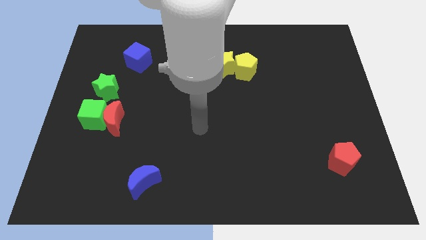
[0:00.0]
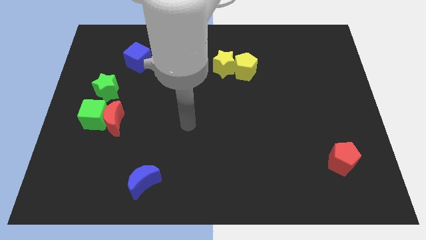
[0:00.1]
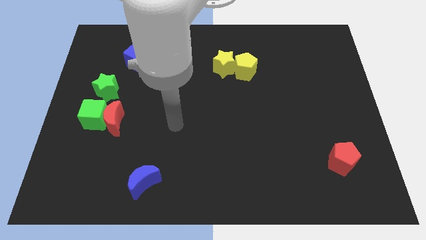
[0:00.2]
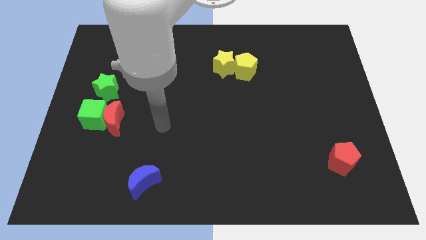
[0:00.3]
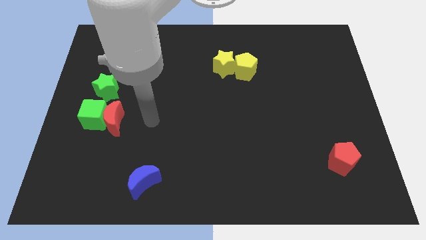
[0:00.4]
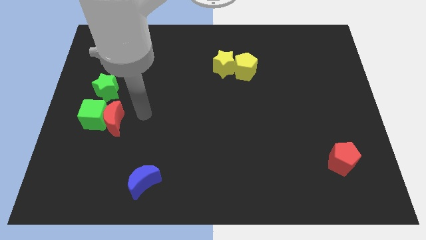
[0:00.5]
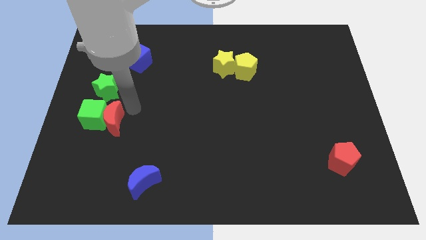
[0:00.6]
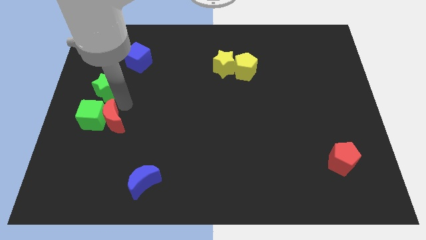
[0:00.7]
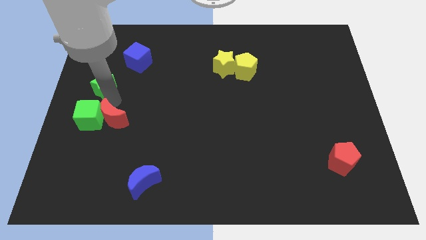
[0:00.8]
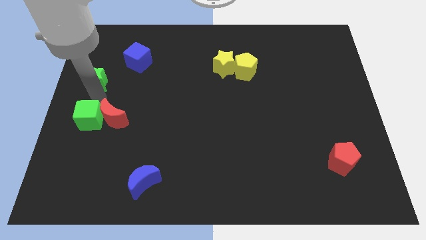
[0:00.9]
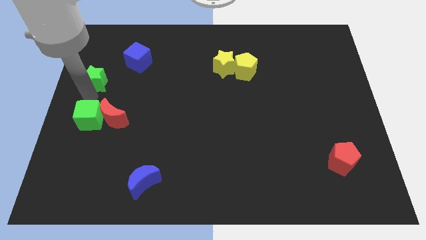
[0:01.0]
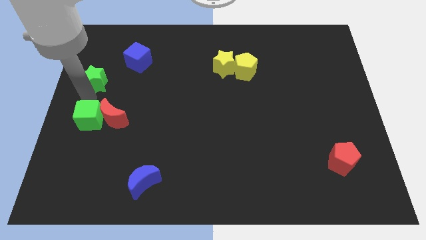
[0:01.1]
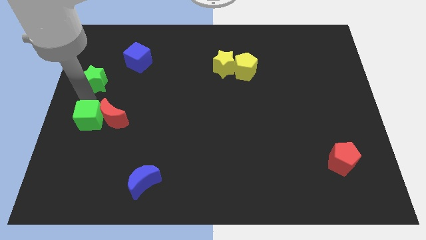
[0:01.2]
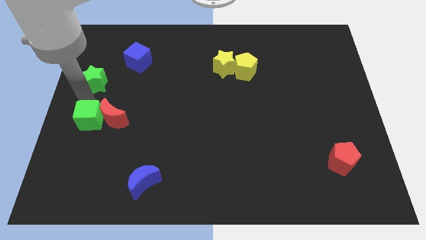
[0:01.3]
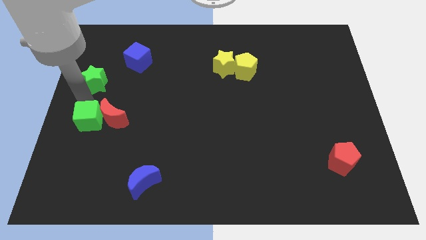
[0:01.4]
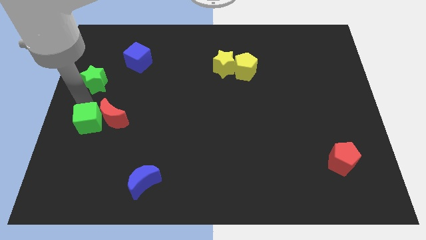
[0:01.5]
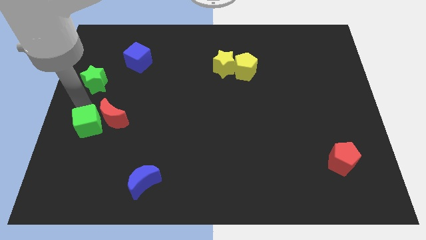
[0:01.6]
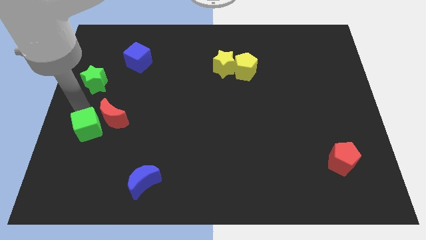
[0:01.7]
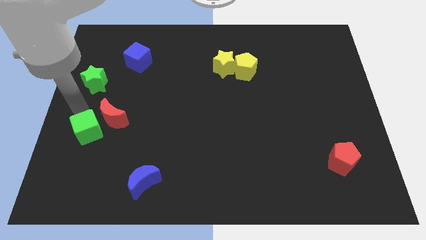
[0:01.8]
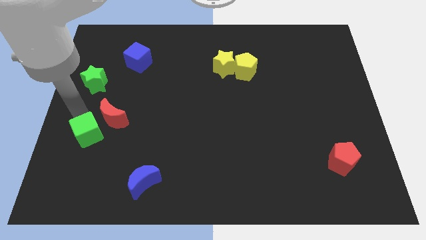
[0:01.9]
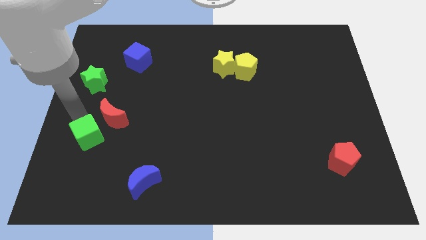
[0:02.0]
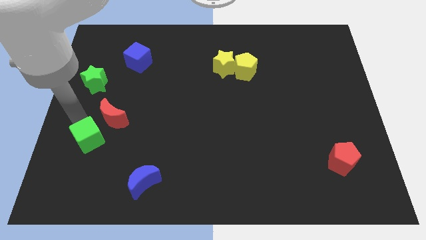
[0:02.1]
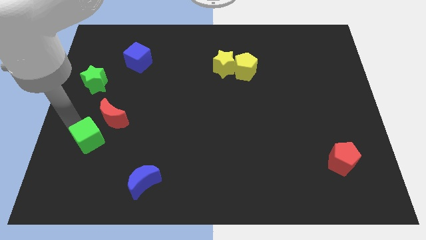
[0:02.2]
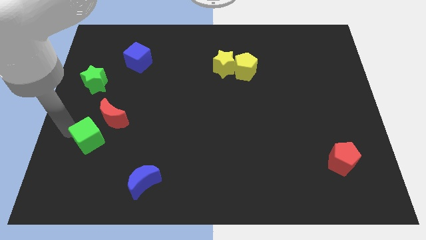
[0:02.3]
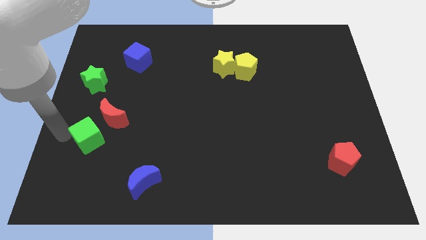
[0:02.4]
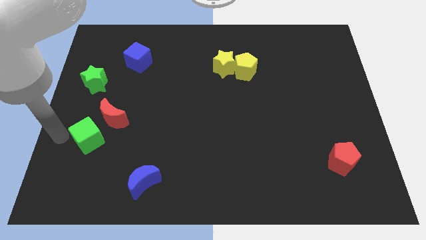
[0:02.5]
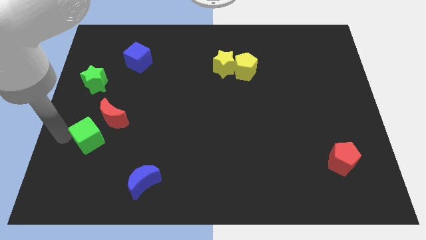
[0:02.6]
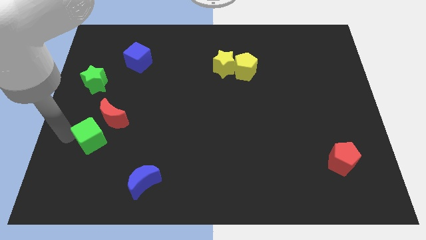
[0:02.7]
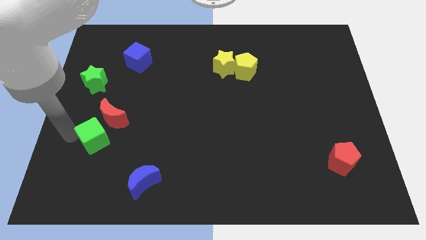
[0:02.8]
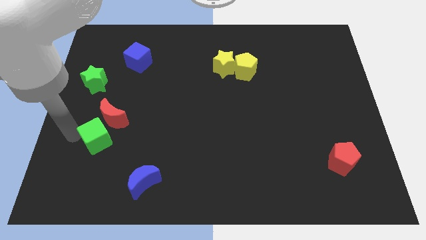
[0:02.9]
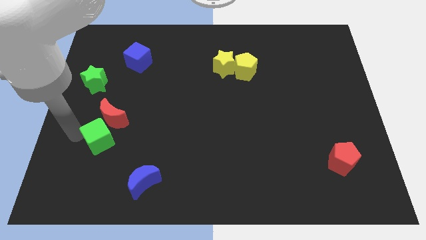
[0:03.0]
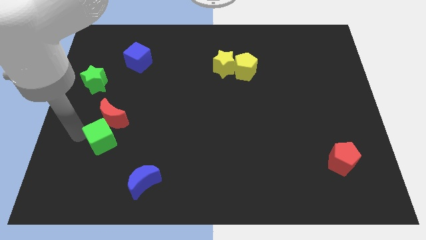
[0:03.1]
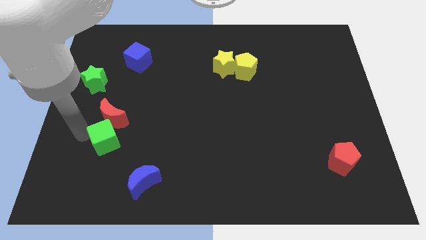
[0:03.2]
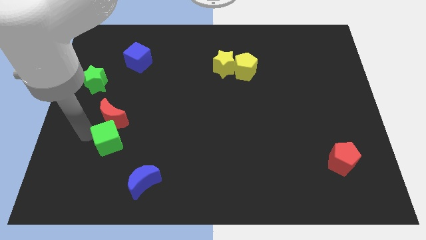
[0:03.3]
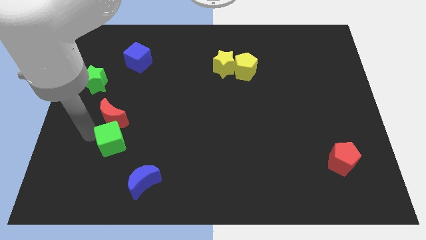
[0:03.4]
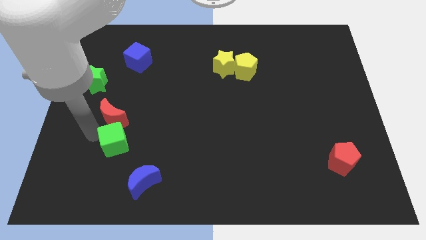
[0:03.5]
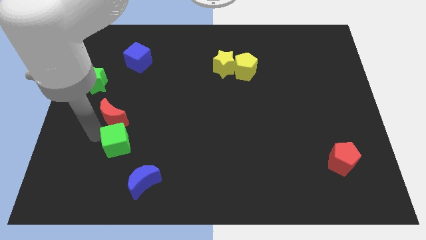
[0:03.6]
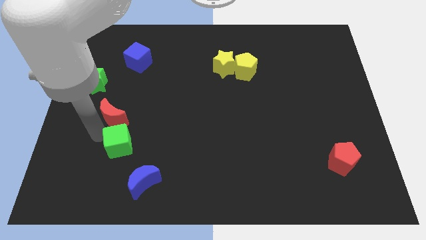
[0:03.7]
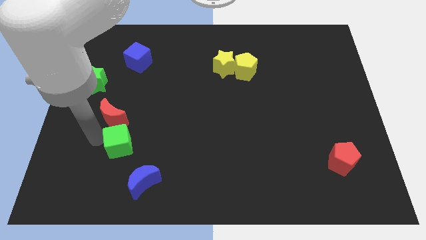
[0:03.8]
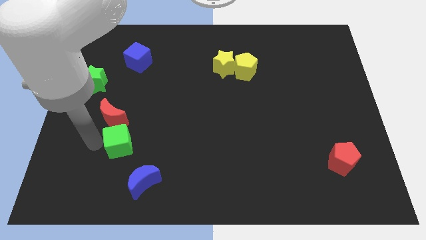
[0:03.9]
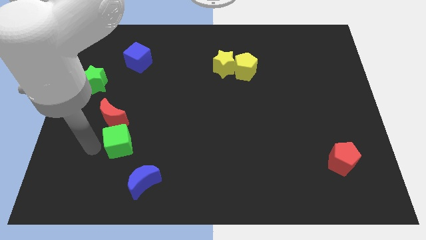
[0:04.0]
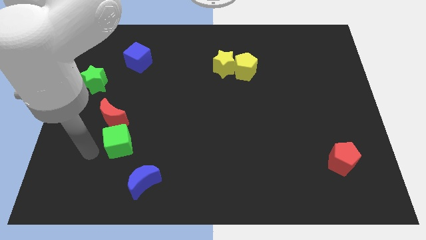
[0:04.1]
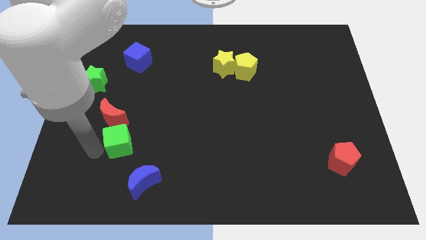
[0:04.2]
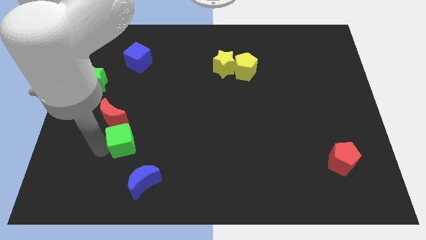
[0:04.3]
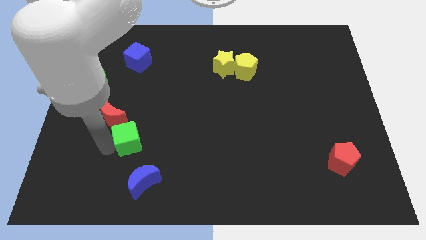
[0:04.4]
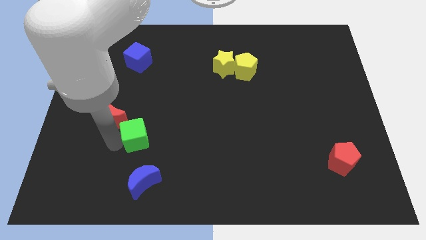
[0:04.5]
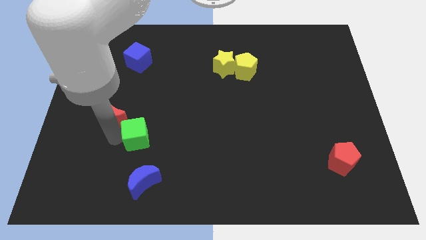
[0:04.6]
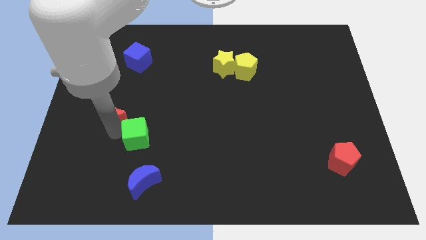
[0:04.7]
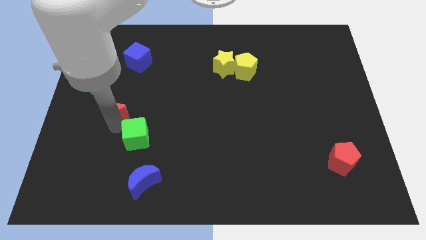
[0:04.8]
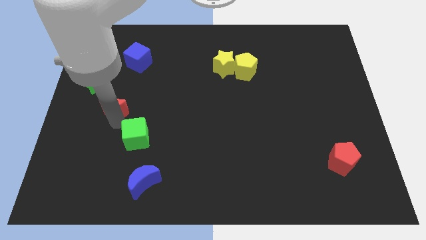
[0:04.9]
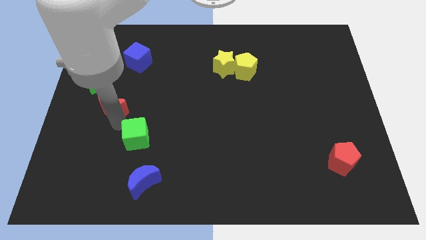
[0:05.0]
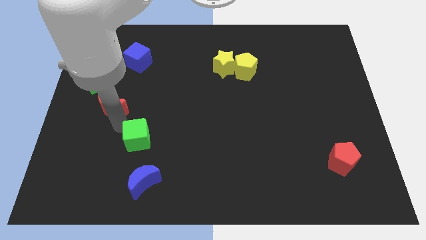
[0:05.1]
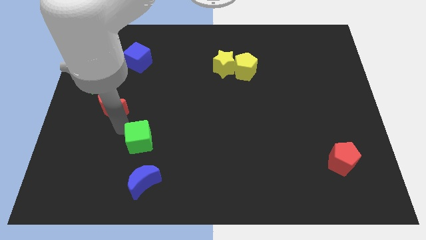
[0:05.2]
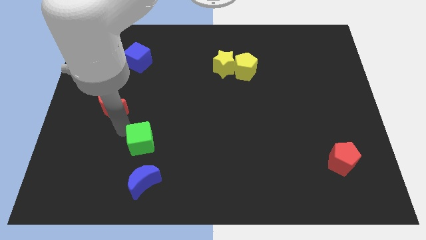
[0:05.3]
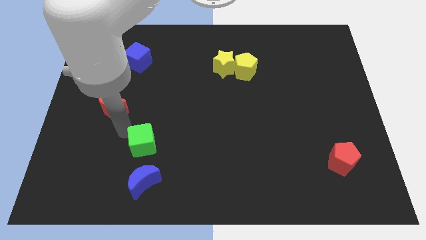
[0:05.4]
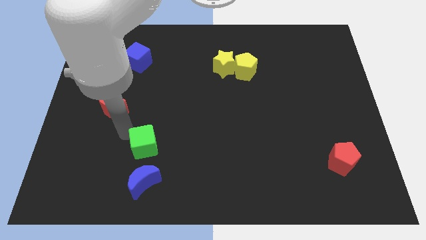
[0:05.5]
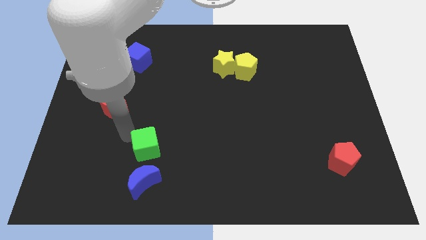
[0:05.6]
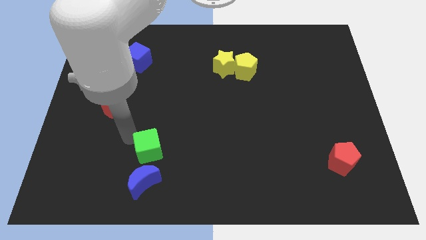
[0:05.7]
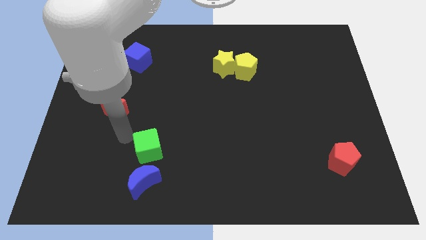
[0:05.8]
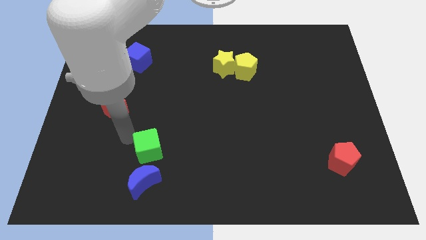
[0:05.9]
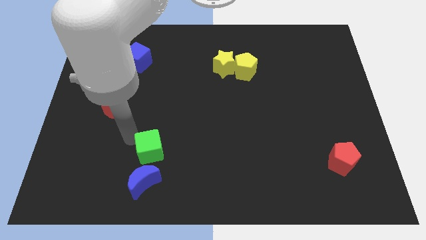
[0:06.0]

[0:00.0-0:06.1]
push the green cube diagonally up and to the right of the blue moon

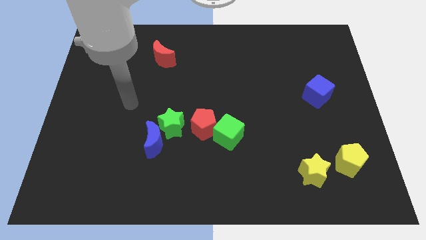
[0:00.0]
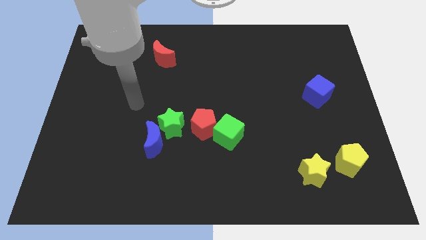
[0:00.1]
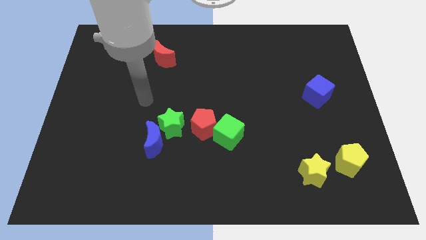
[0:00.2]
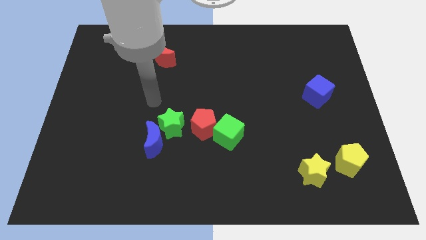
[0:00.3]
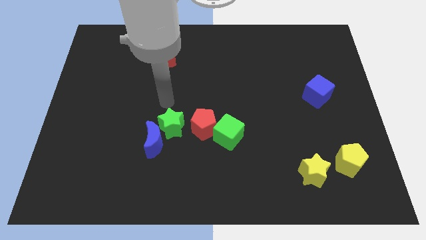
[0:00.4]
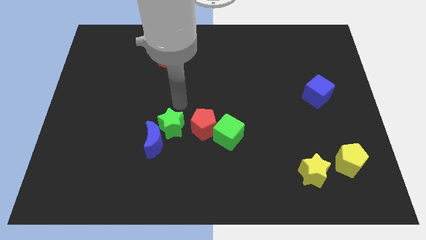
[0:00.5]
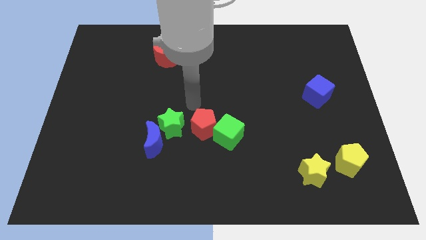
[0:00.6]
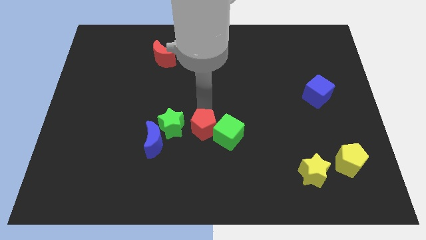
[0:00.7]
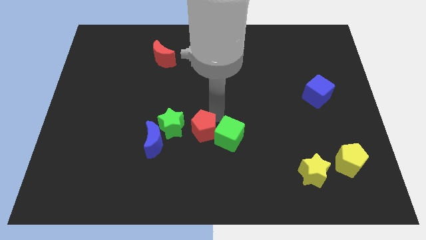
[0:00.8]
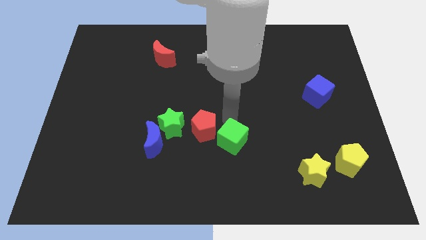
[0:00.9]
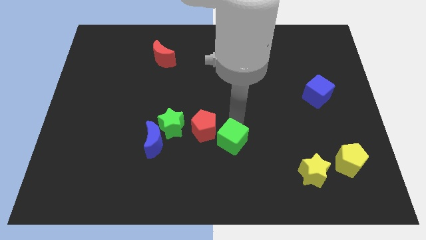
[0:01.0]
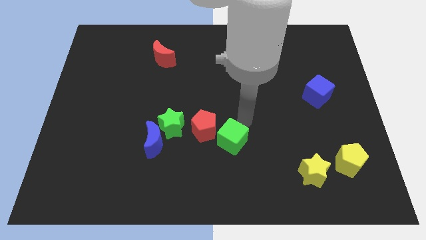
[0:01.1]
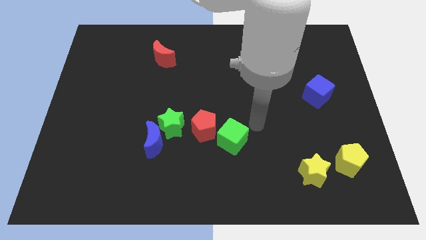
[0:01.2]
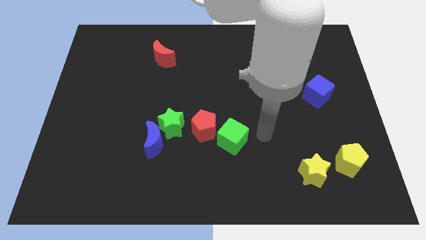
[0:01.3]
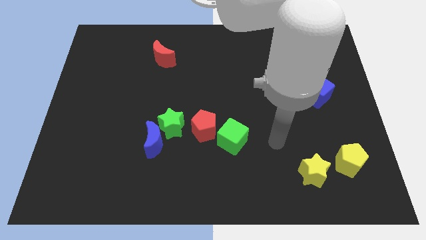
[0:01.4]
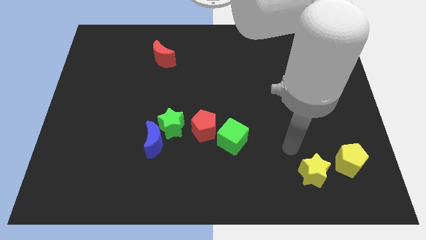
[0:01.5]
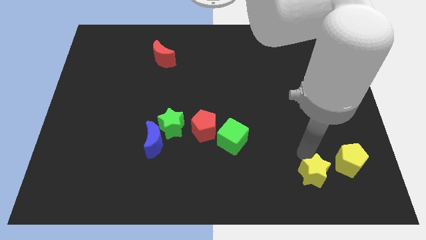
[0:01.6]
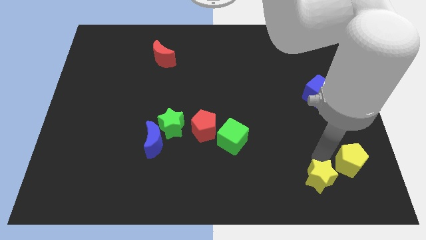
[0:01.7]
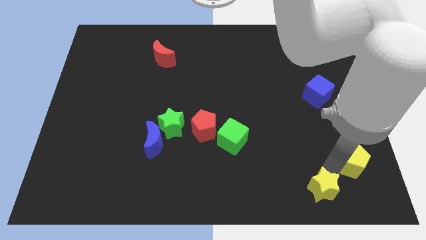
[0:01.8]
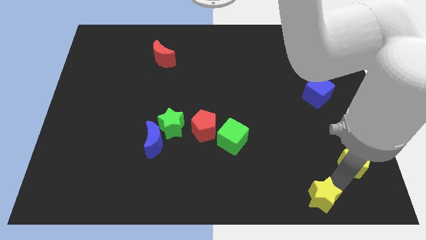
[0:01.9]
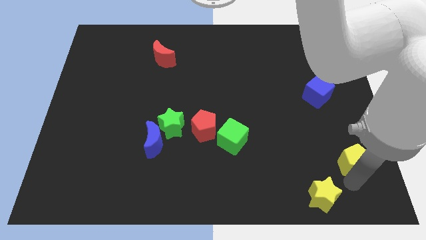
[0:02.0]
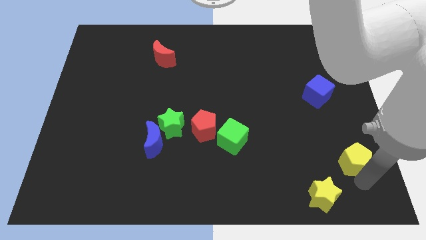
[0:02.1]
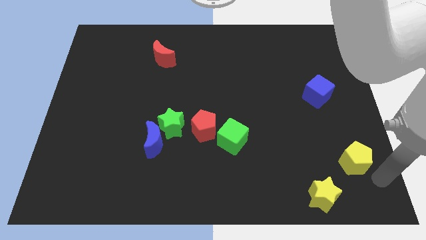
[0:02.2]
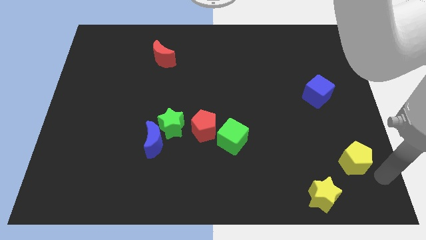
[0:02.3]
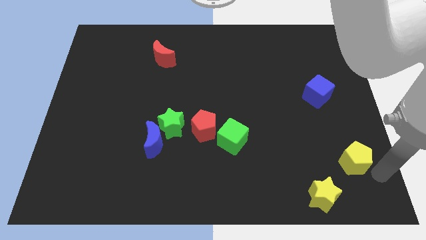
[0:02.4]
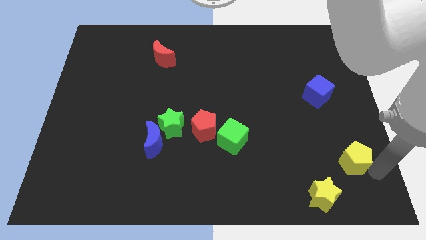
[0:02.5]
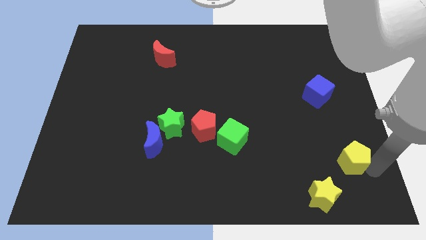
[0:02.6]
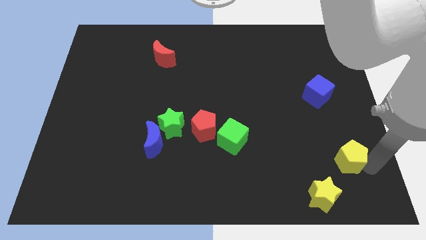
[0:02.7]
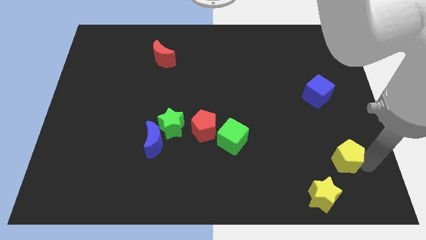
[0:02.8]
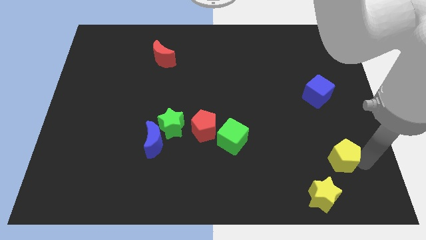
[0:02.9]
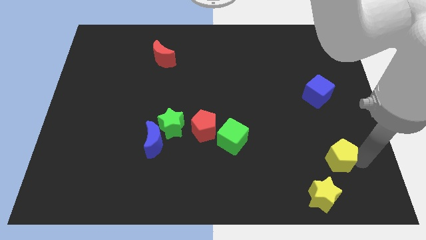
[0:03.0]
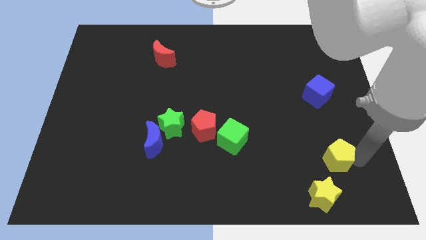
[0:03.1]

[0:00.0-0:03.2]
move the yellow pentagon above the yellow star
